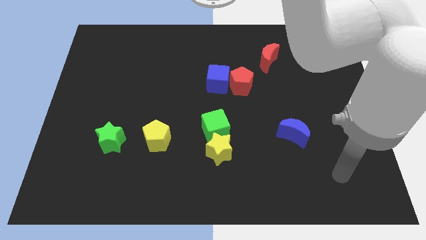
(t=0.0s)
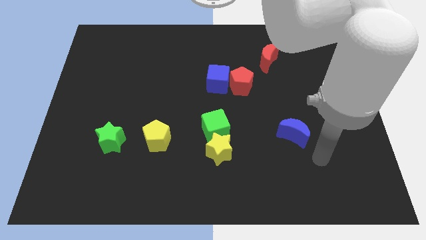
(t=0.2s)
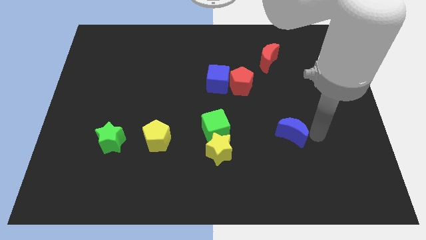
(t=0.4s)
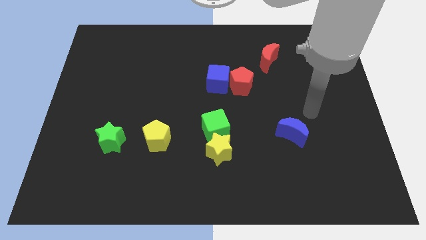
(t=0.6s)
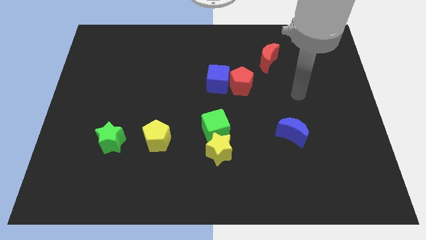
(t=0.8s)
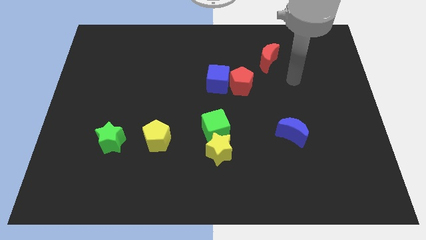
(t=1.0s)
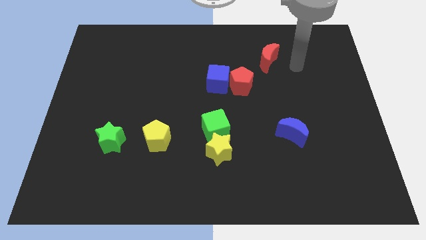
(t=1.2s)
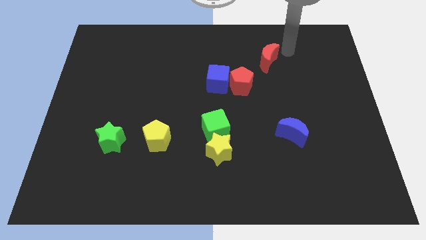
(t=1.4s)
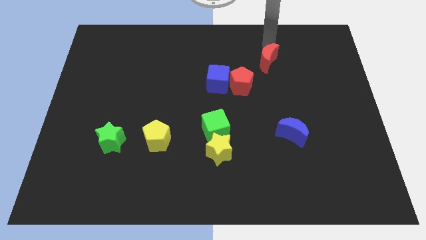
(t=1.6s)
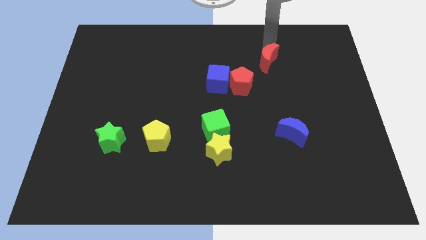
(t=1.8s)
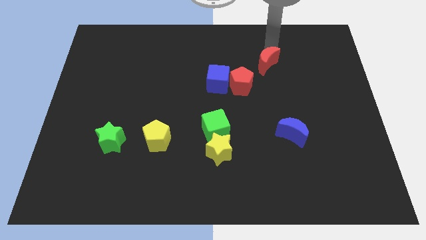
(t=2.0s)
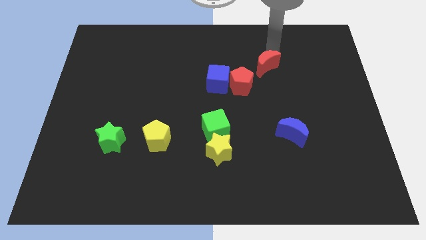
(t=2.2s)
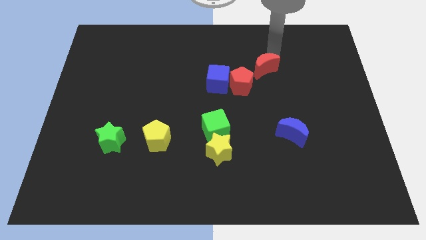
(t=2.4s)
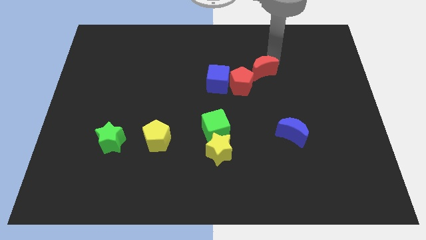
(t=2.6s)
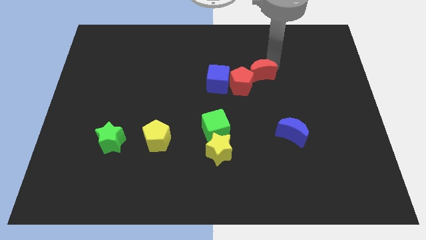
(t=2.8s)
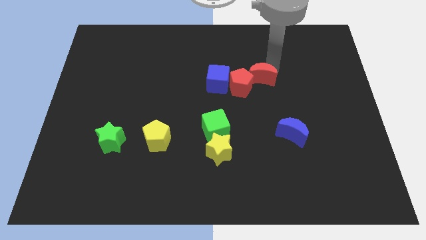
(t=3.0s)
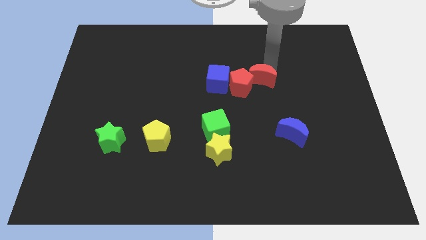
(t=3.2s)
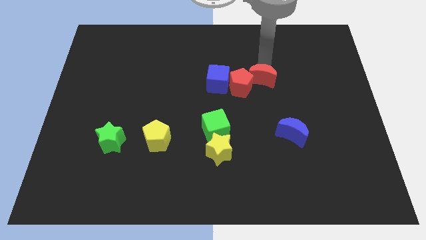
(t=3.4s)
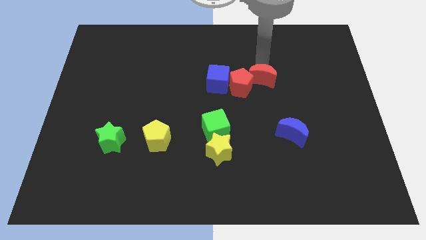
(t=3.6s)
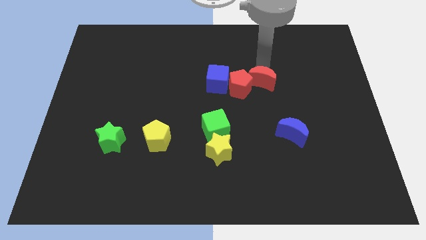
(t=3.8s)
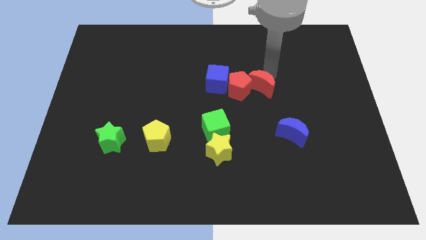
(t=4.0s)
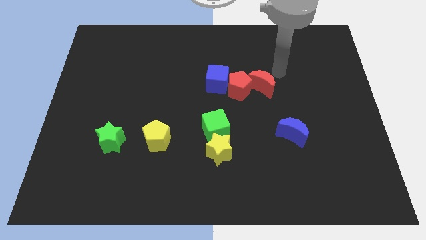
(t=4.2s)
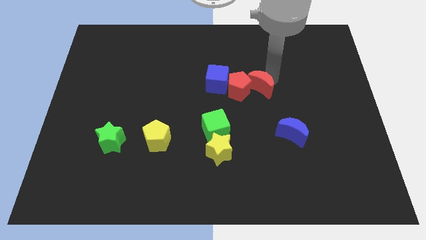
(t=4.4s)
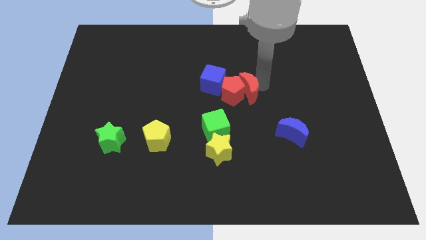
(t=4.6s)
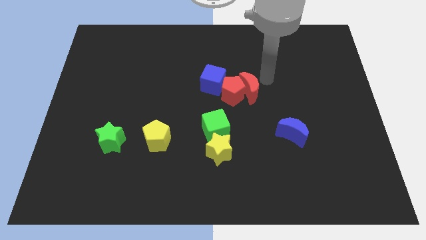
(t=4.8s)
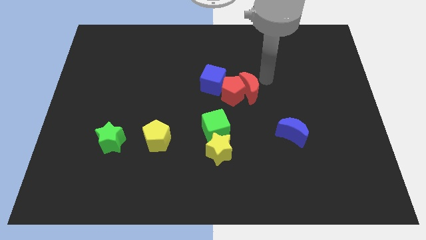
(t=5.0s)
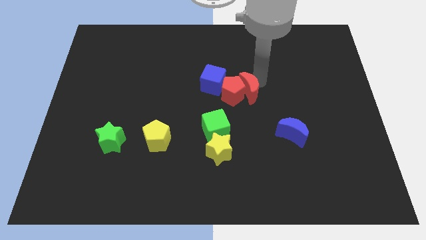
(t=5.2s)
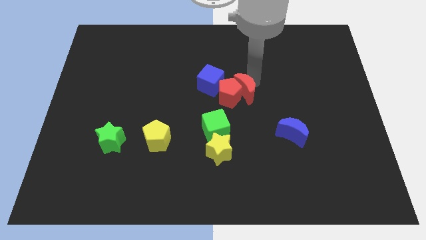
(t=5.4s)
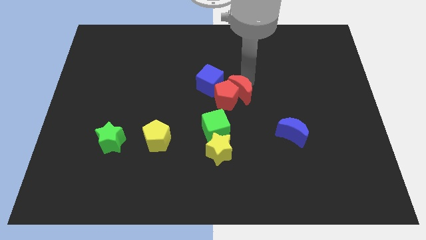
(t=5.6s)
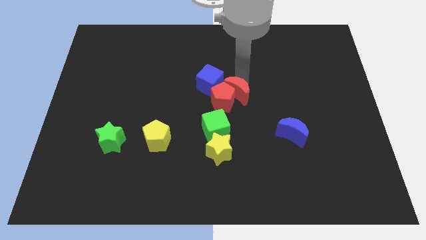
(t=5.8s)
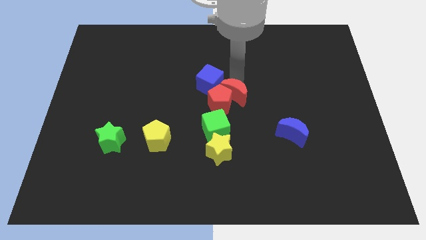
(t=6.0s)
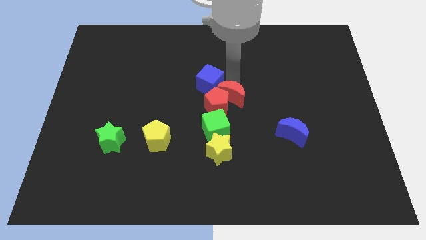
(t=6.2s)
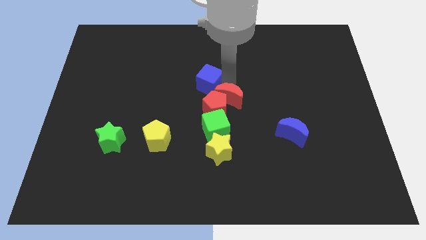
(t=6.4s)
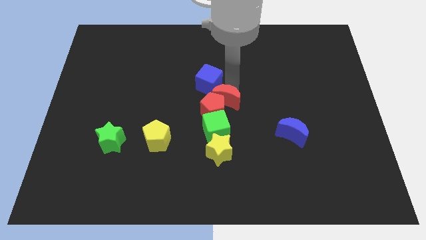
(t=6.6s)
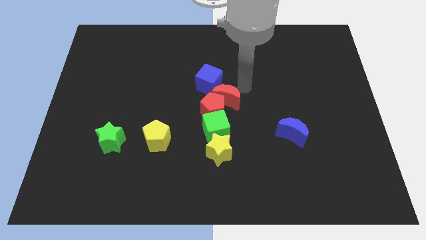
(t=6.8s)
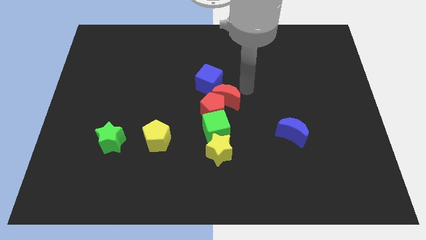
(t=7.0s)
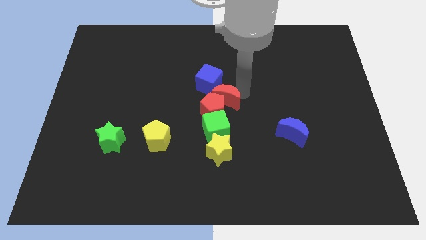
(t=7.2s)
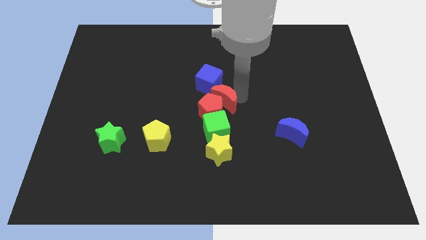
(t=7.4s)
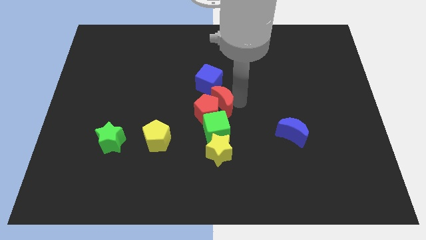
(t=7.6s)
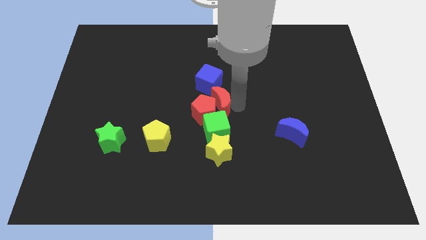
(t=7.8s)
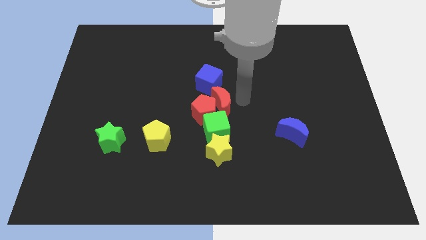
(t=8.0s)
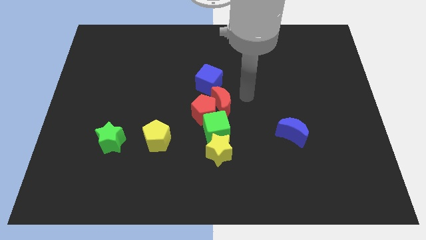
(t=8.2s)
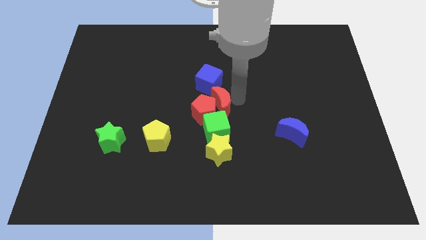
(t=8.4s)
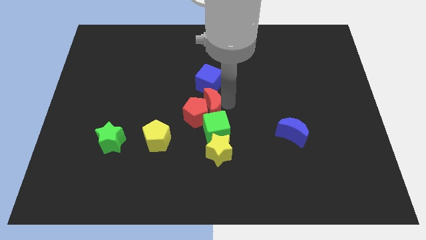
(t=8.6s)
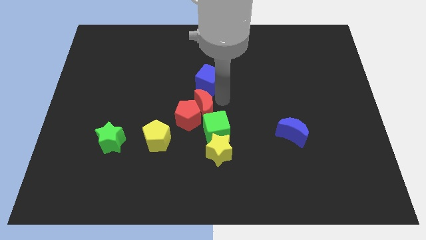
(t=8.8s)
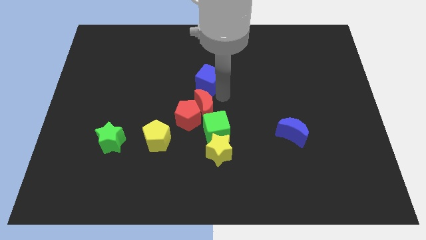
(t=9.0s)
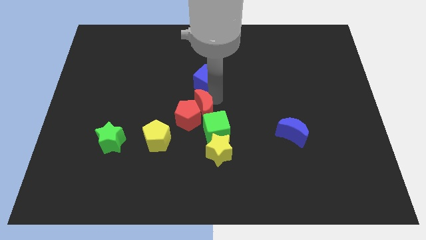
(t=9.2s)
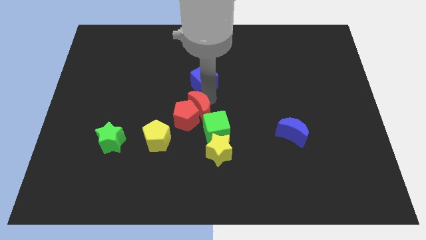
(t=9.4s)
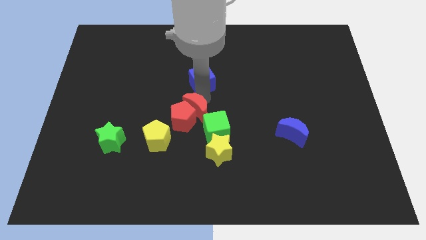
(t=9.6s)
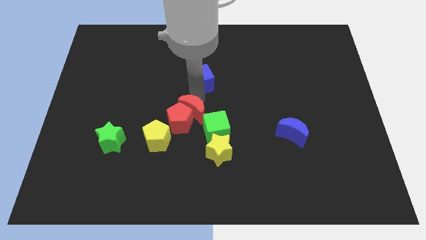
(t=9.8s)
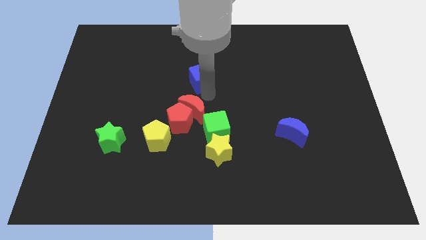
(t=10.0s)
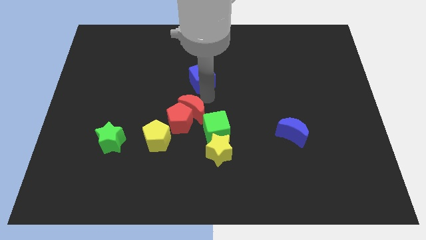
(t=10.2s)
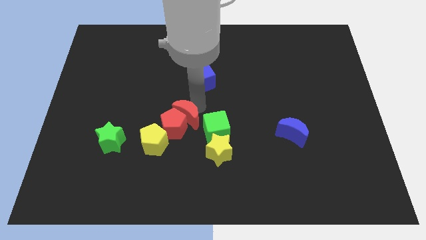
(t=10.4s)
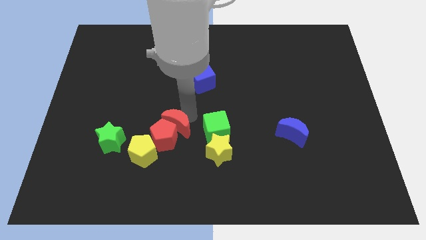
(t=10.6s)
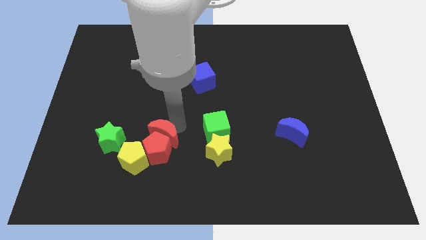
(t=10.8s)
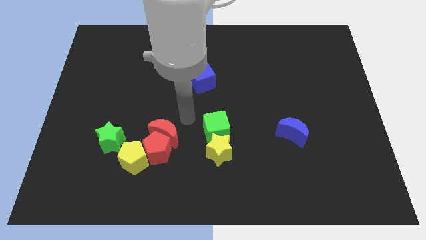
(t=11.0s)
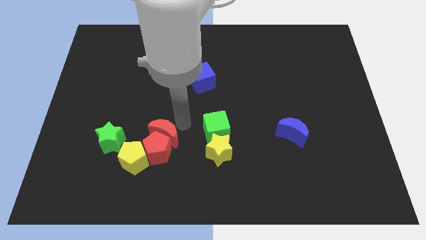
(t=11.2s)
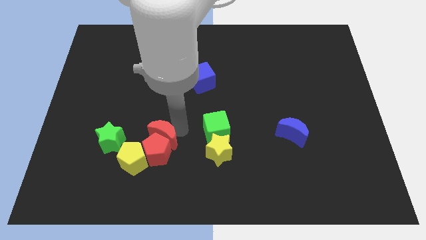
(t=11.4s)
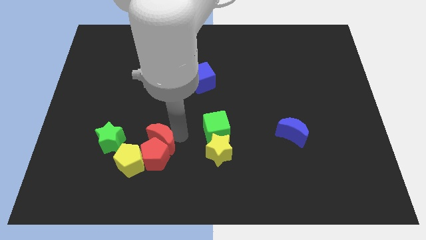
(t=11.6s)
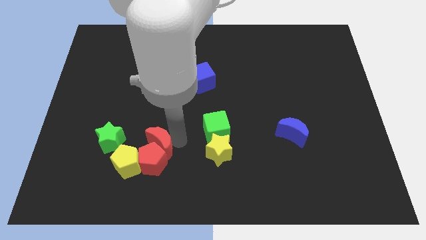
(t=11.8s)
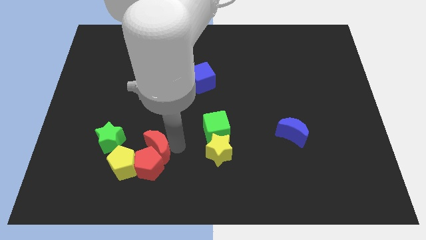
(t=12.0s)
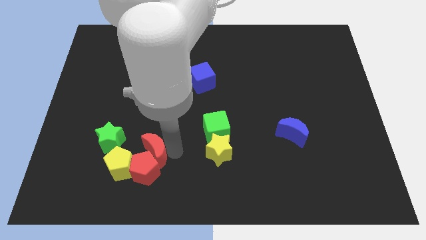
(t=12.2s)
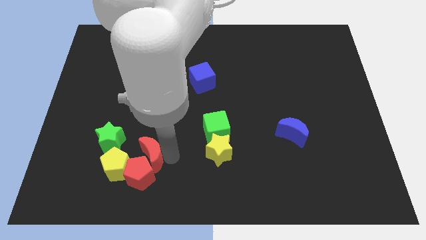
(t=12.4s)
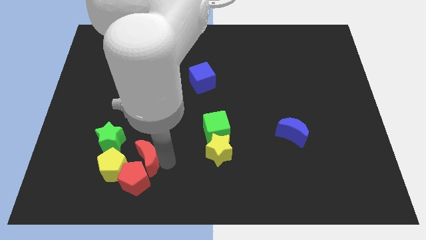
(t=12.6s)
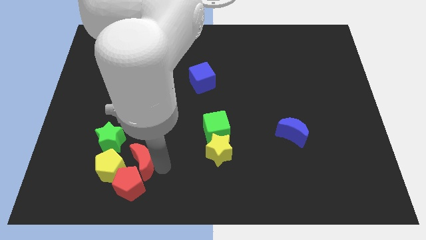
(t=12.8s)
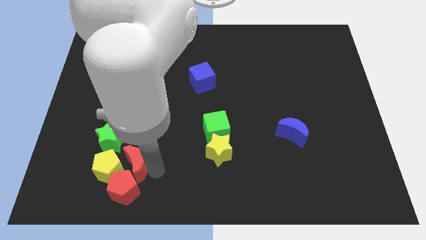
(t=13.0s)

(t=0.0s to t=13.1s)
push the red moon to the yellow pentagon
